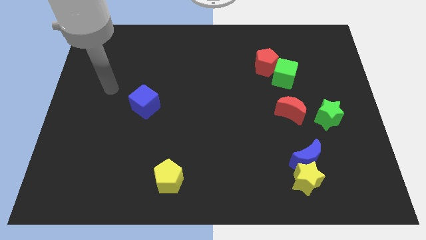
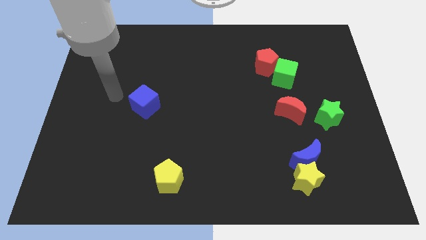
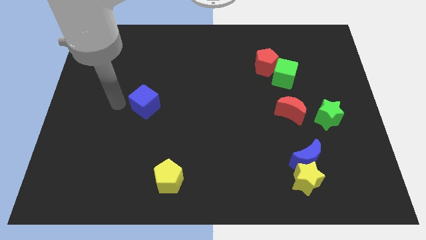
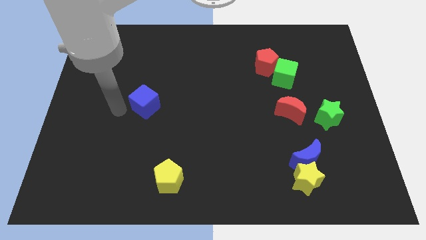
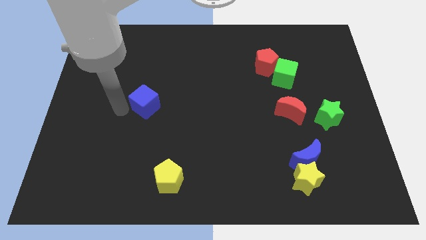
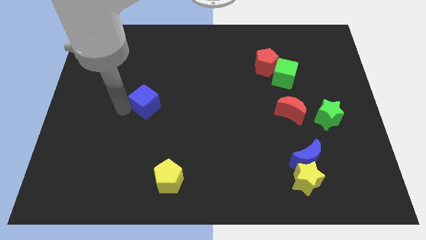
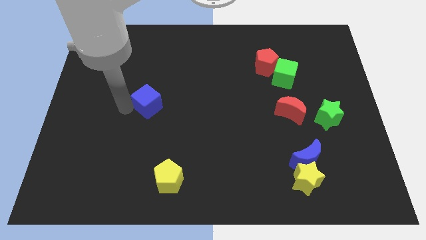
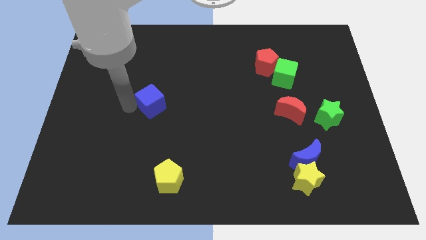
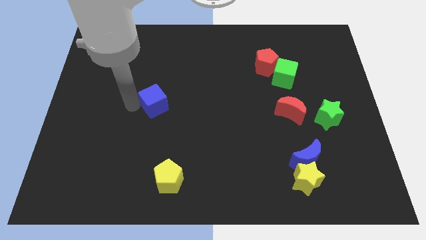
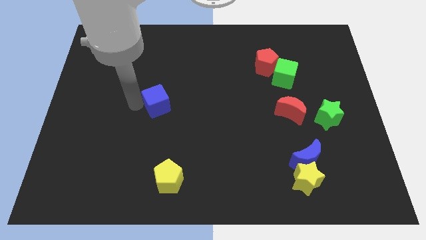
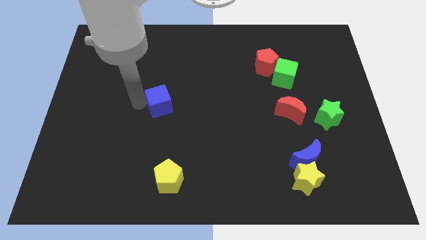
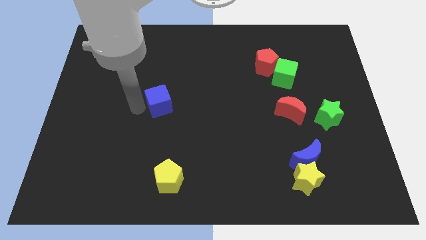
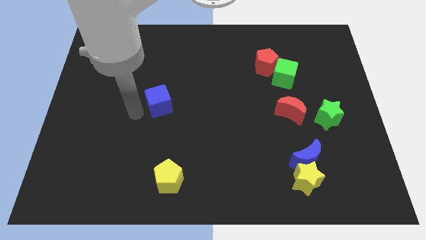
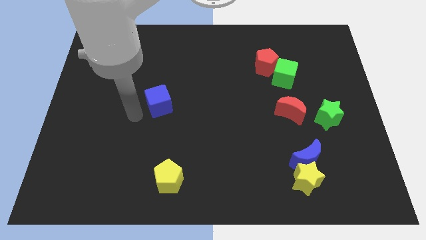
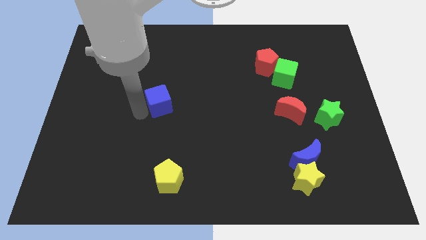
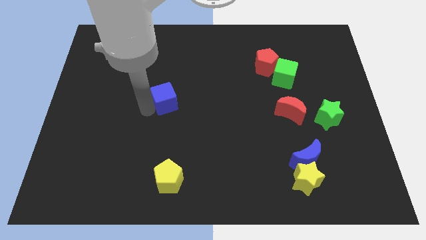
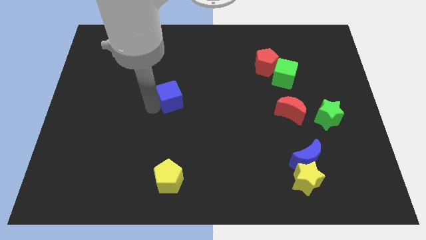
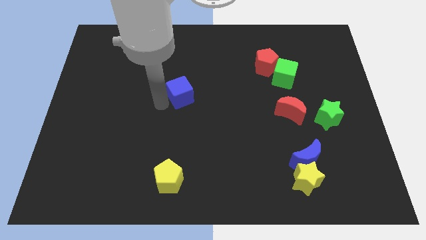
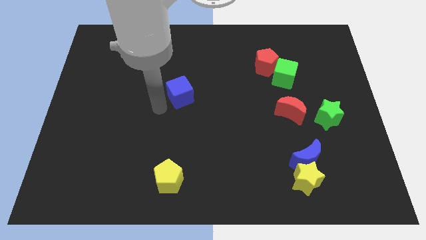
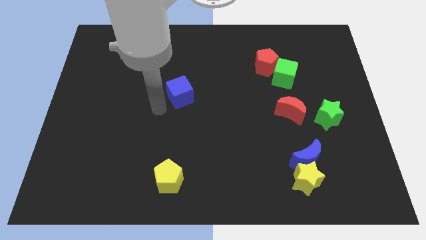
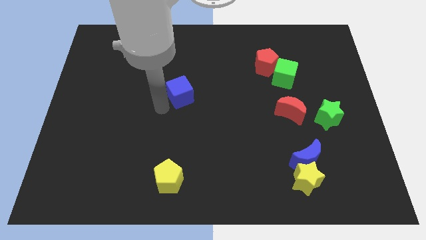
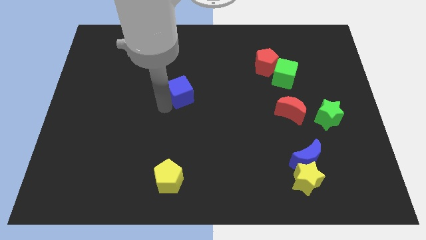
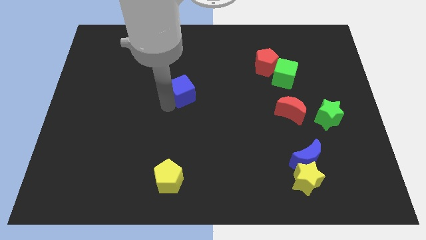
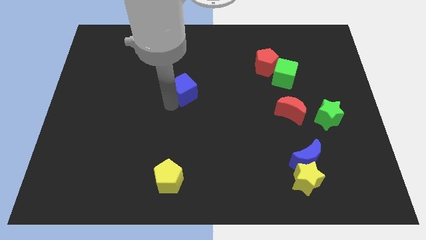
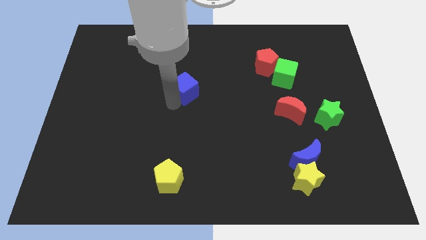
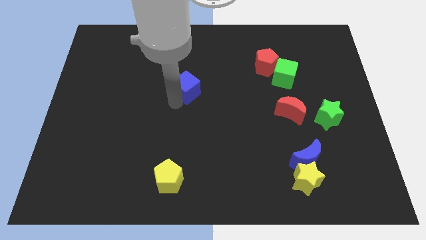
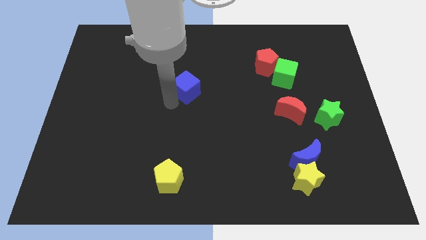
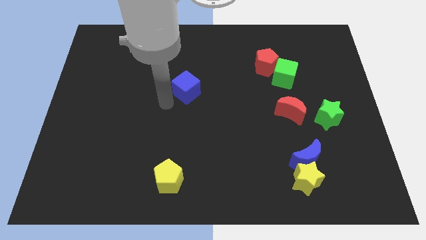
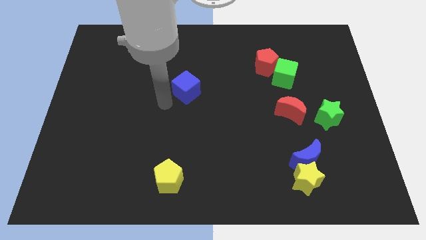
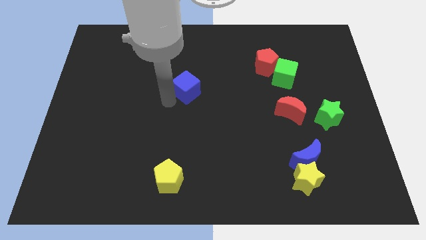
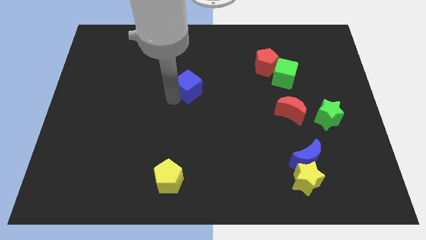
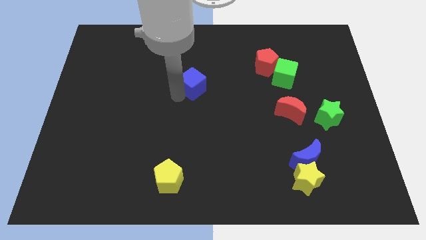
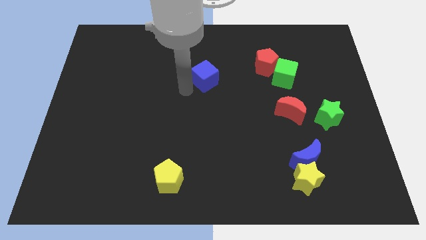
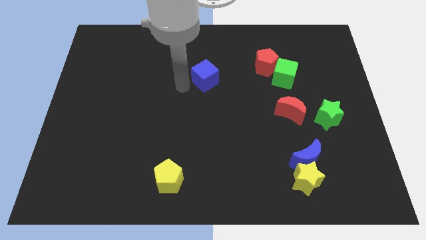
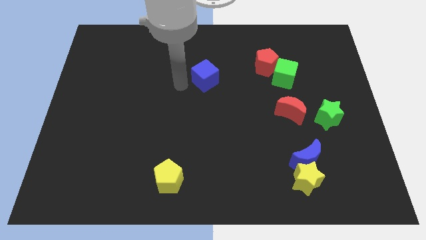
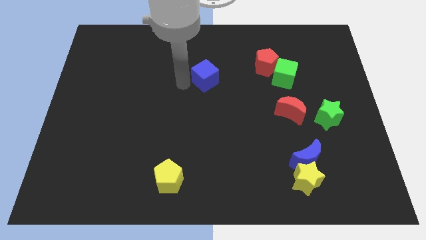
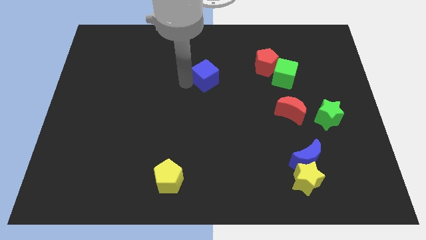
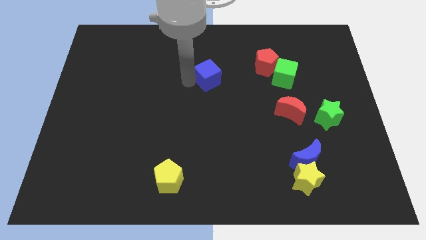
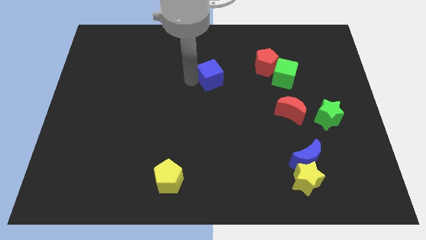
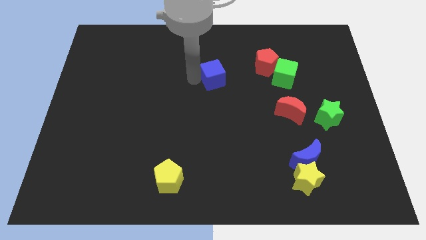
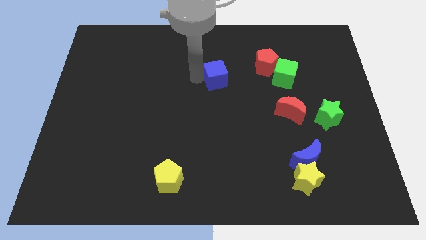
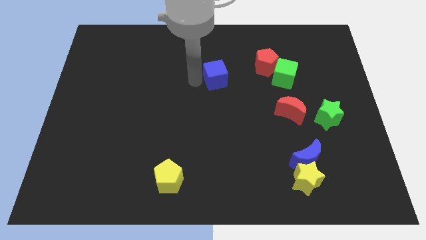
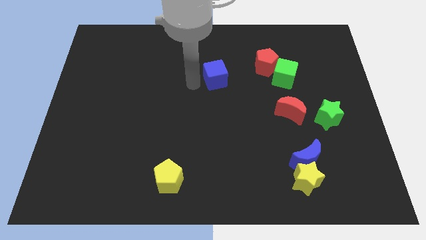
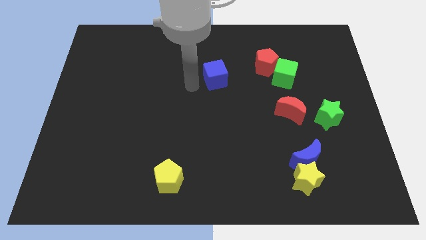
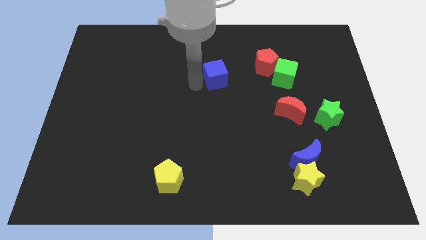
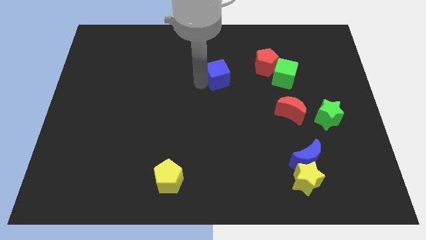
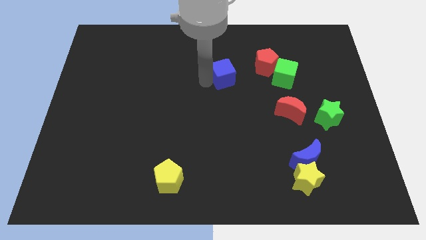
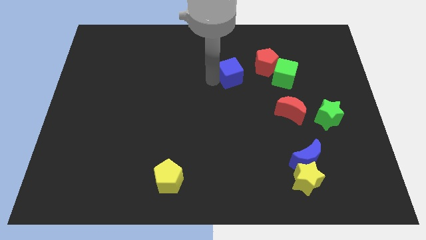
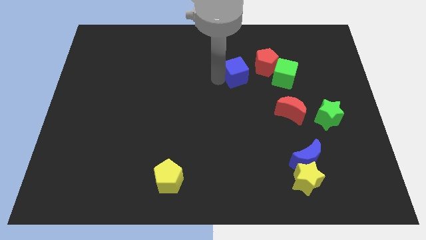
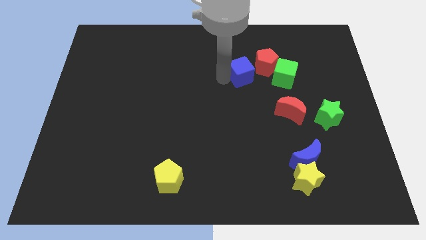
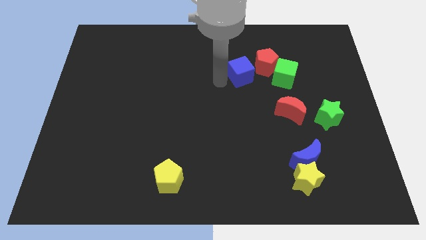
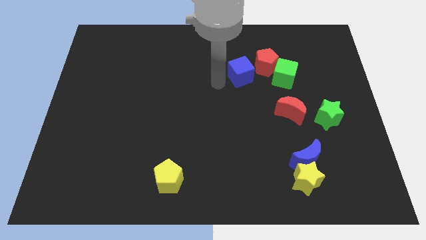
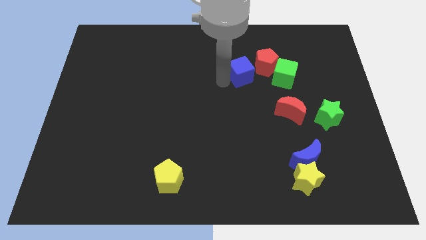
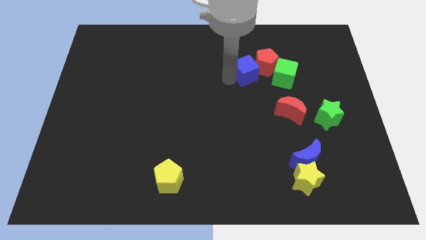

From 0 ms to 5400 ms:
push the blue cube next to the red pentagon

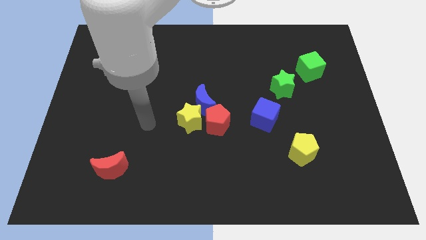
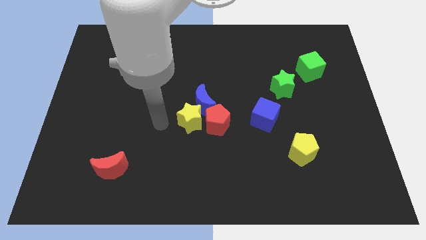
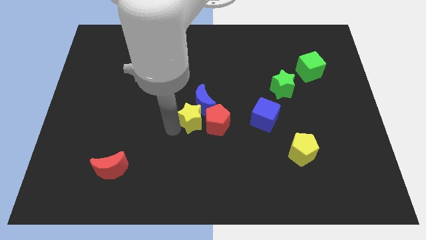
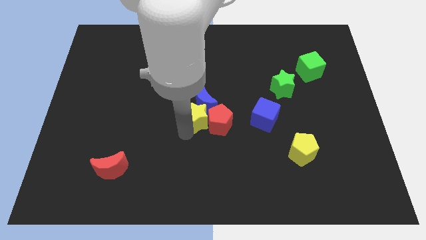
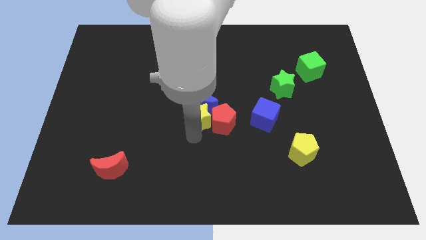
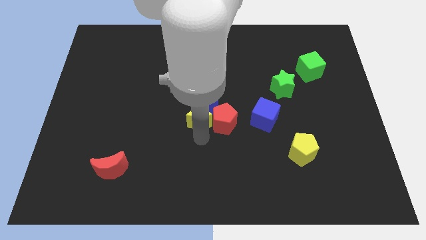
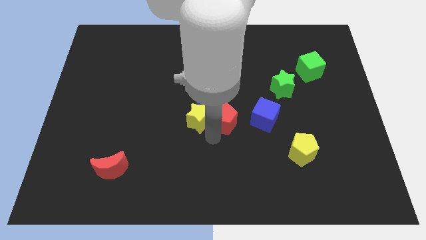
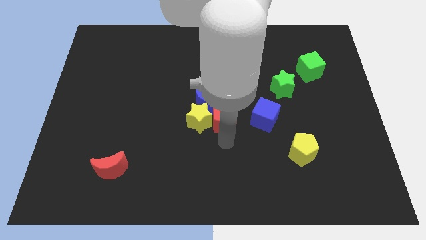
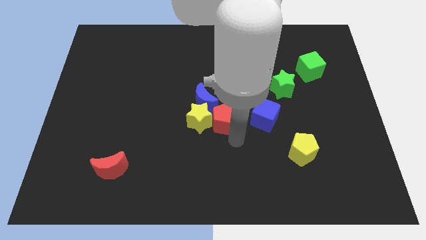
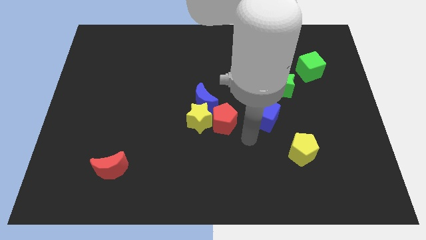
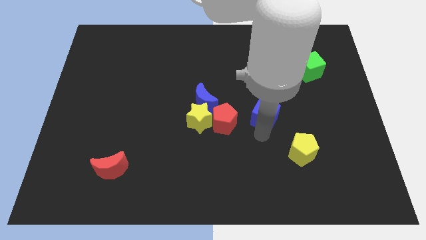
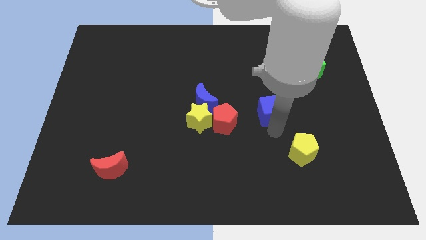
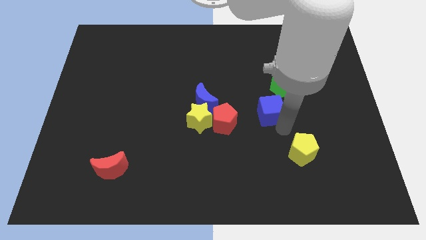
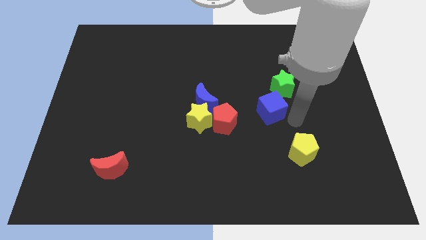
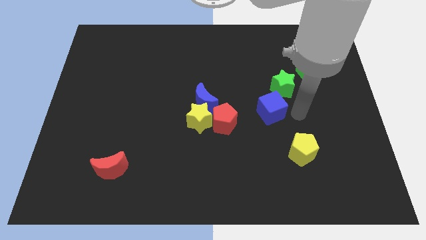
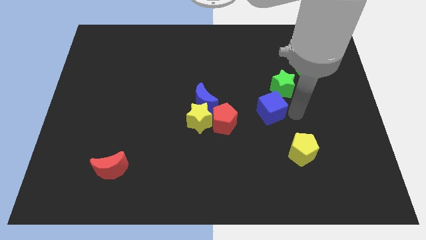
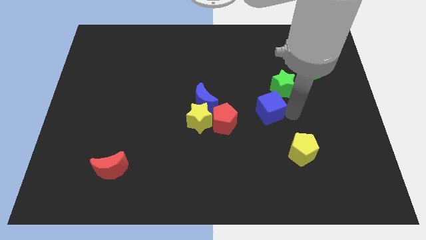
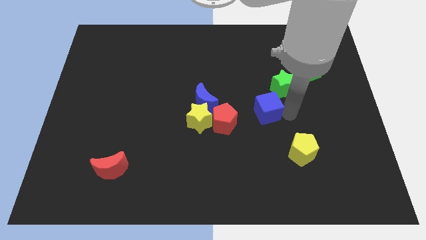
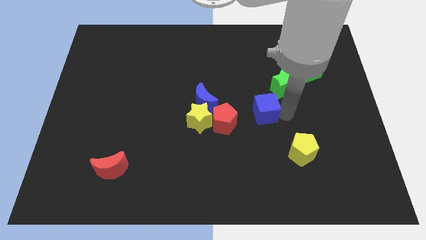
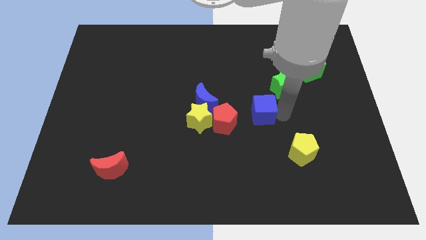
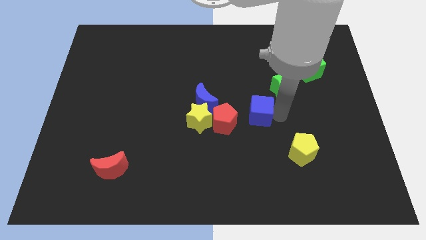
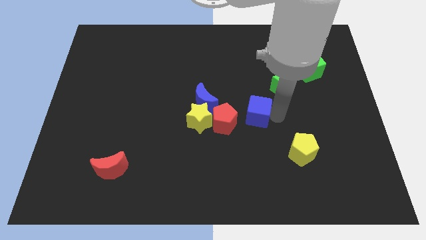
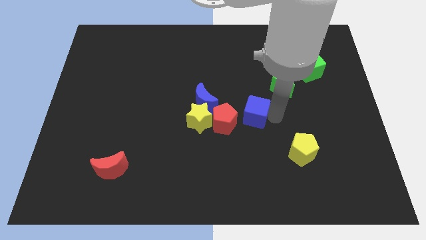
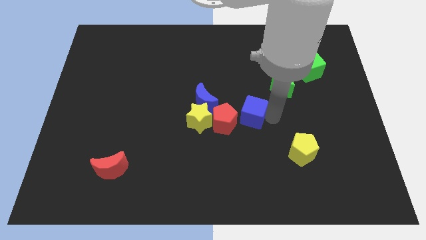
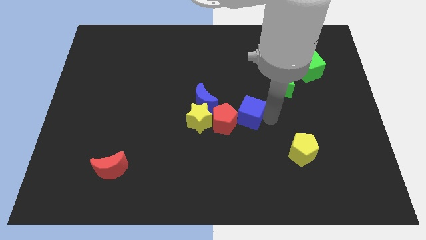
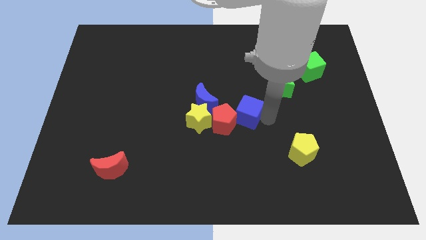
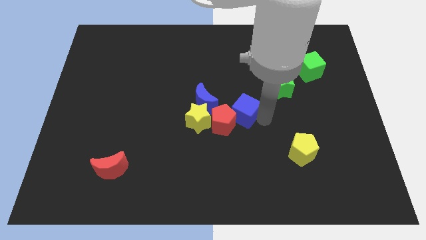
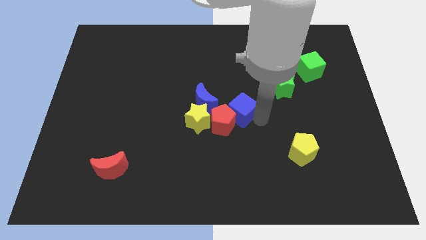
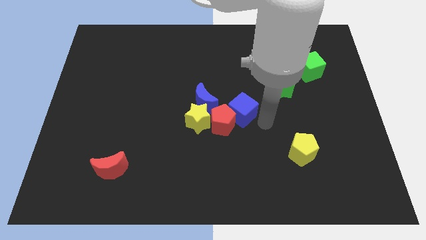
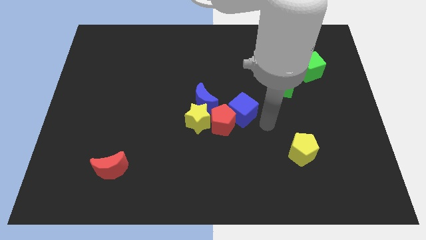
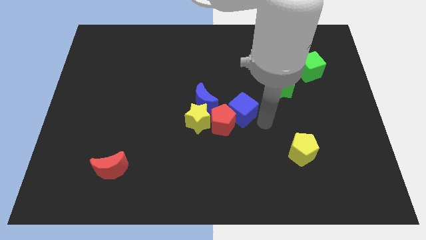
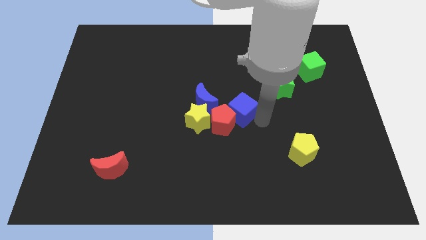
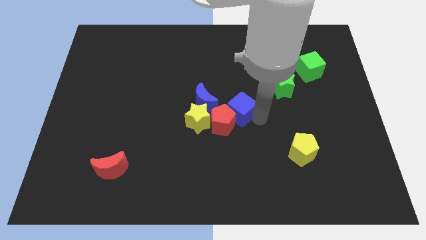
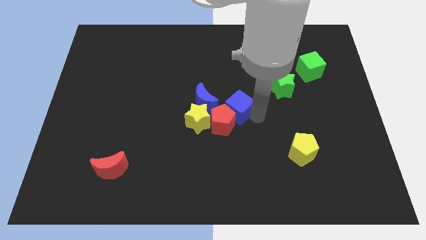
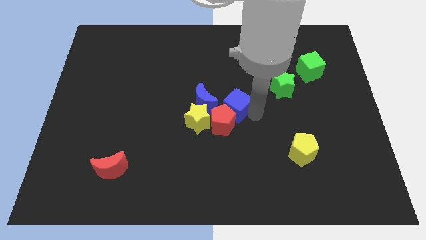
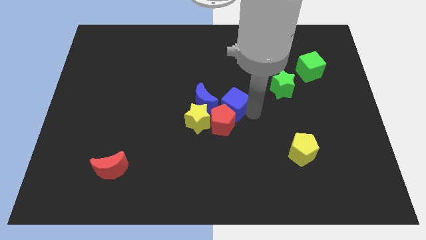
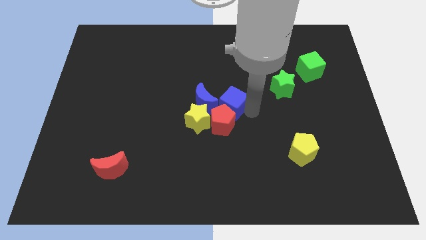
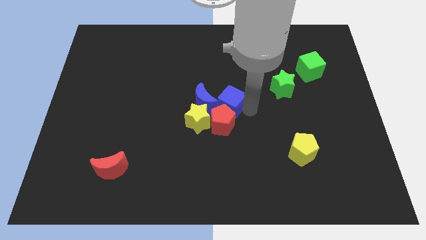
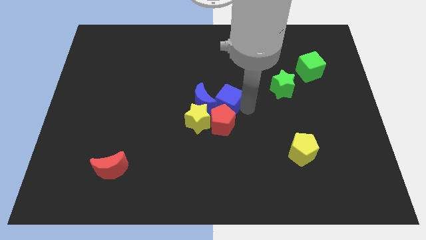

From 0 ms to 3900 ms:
push the blue cube to the blue moon
